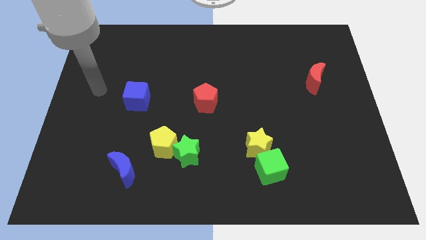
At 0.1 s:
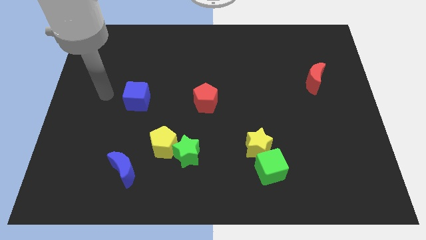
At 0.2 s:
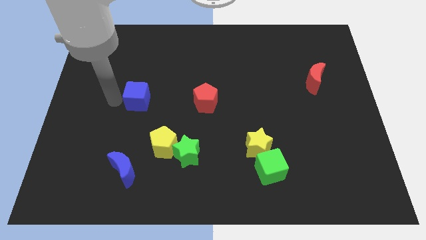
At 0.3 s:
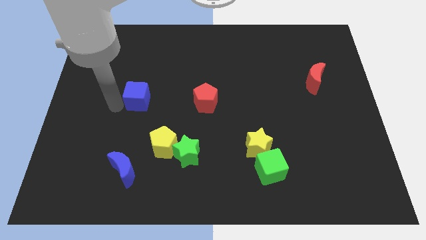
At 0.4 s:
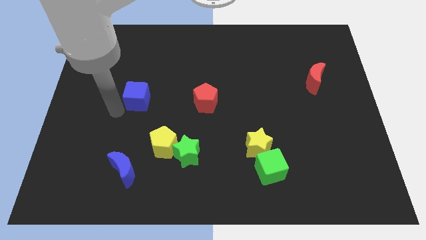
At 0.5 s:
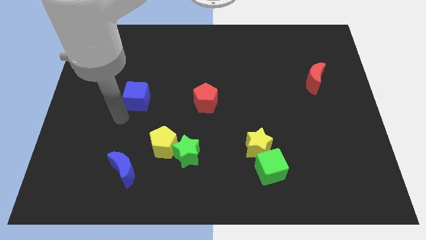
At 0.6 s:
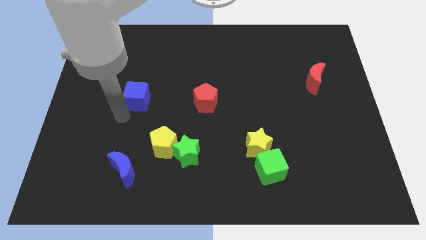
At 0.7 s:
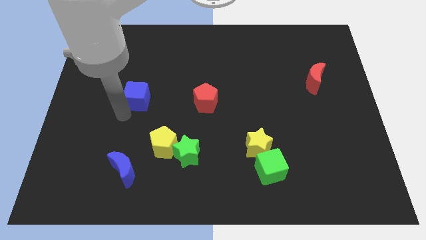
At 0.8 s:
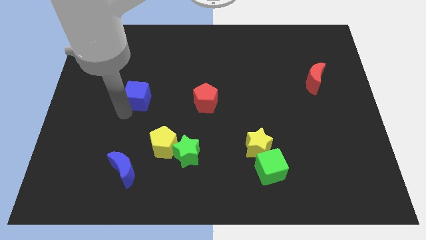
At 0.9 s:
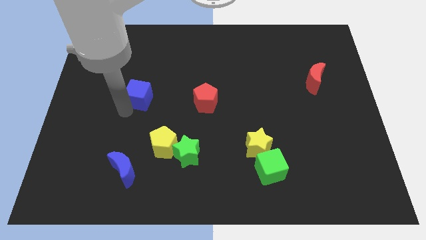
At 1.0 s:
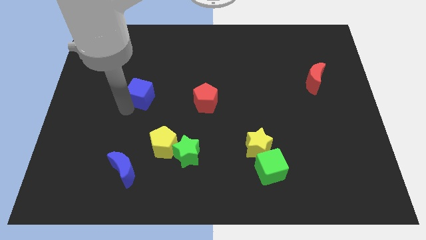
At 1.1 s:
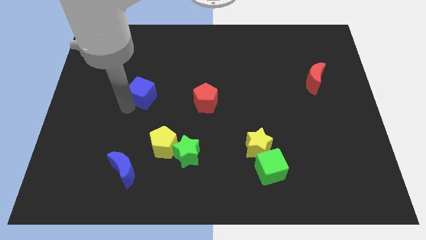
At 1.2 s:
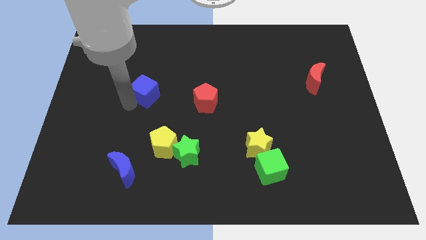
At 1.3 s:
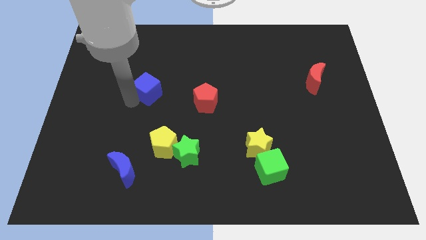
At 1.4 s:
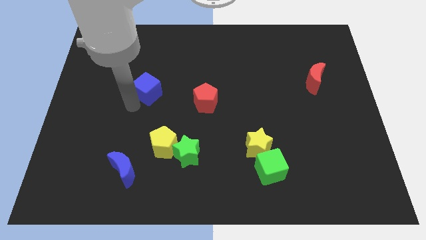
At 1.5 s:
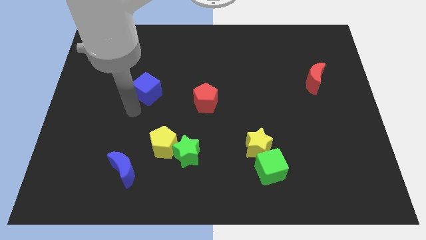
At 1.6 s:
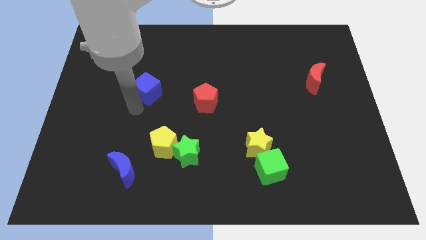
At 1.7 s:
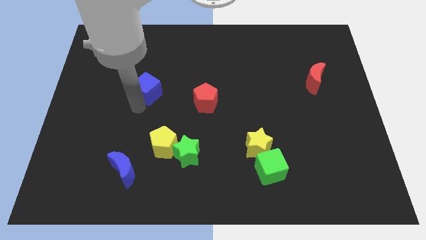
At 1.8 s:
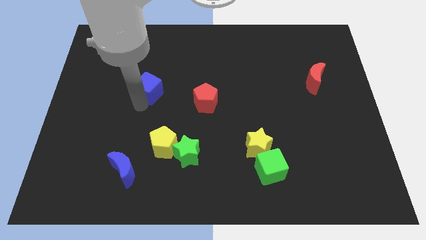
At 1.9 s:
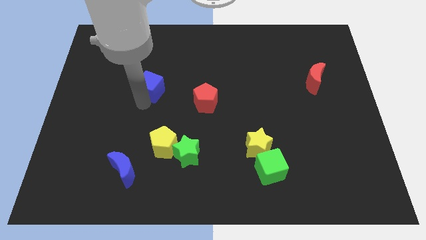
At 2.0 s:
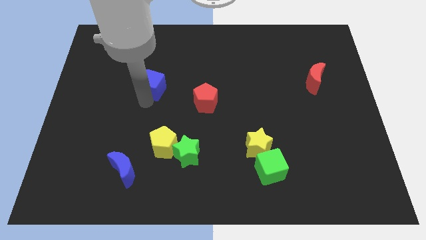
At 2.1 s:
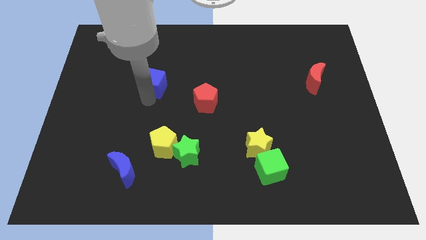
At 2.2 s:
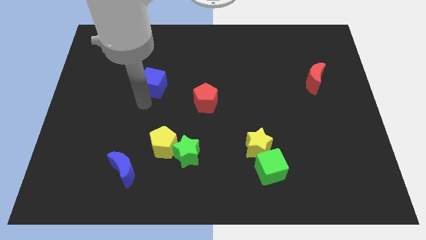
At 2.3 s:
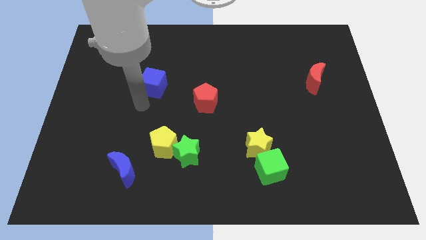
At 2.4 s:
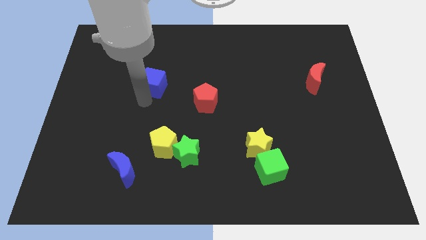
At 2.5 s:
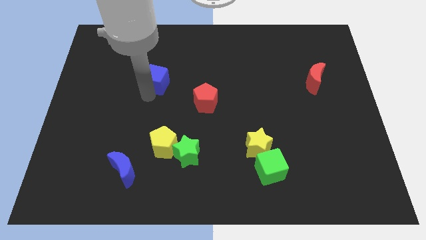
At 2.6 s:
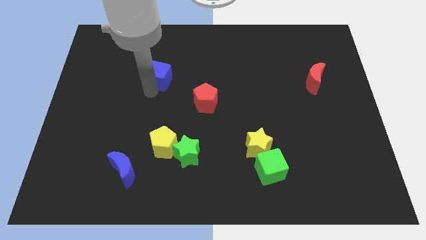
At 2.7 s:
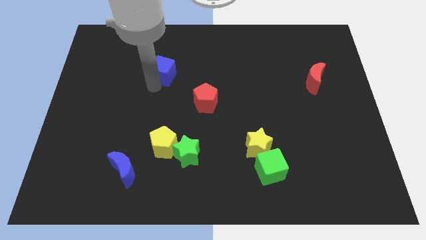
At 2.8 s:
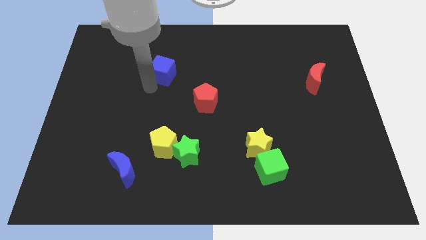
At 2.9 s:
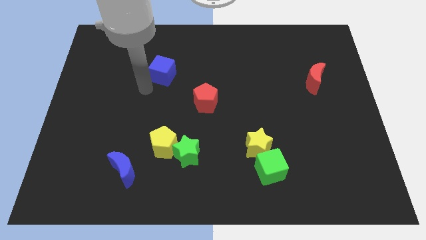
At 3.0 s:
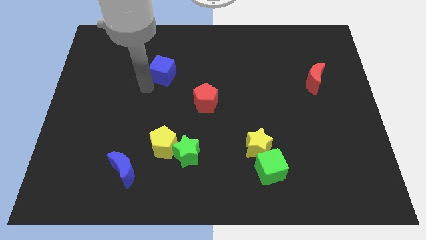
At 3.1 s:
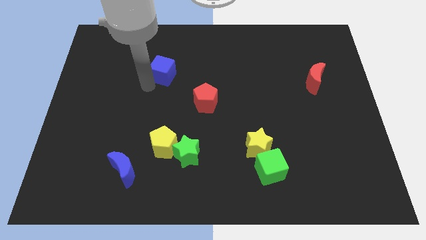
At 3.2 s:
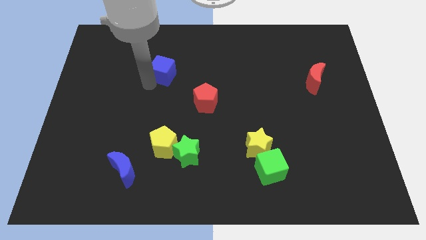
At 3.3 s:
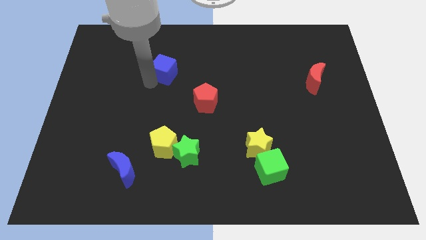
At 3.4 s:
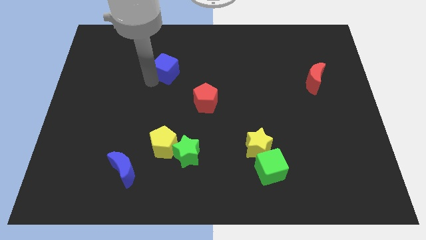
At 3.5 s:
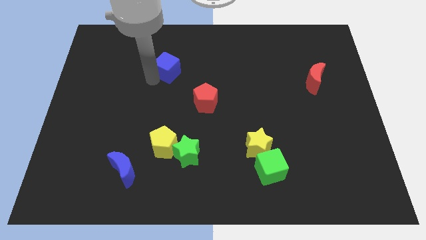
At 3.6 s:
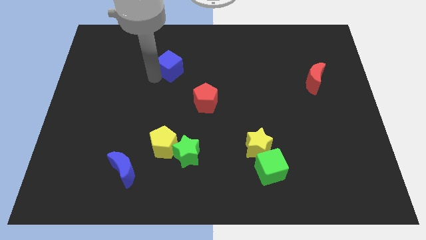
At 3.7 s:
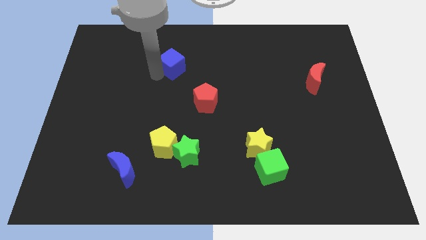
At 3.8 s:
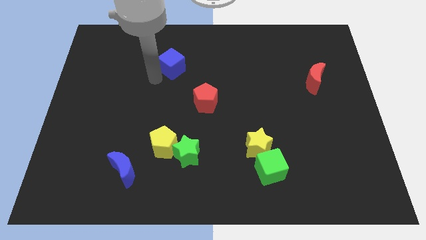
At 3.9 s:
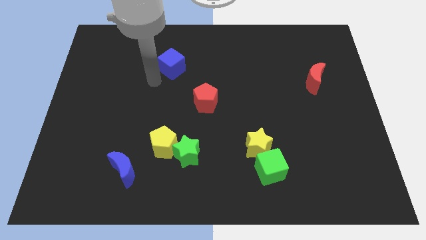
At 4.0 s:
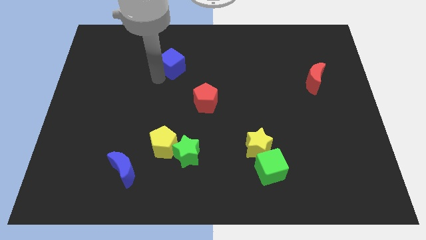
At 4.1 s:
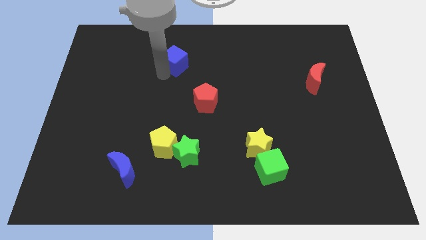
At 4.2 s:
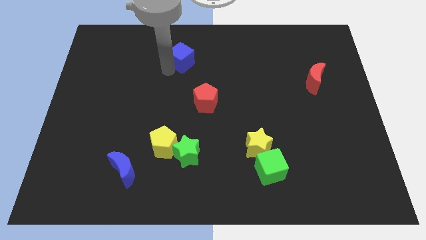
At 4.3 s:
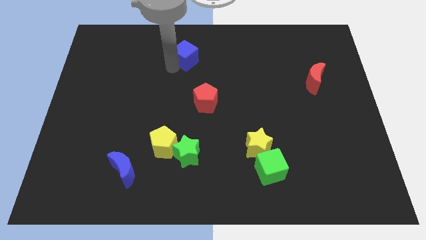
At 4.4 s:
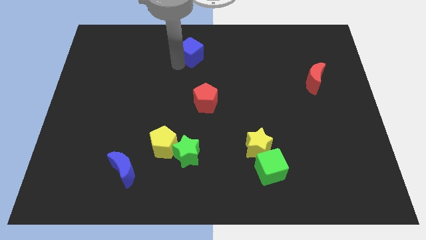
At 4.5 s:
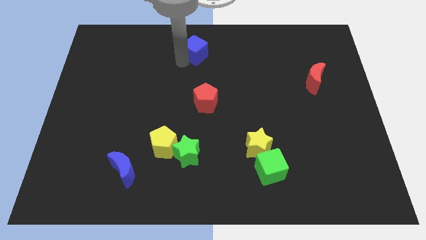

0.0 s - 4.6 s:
put the blue cube to the towards your base

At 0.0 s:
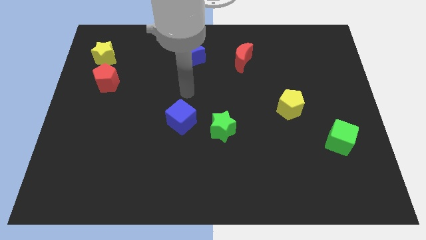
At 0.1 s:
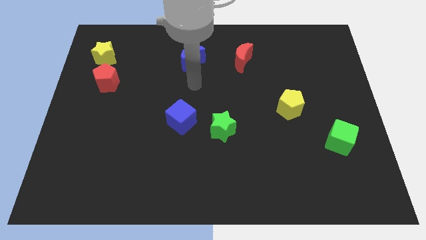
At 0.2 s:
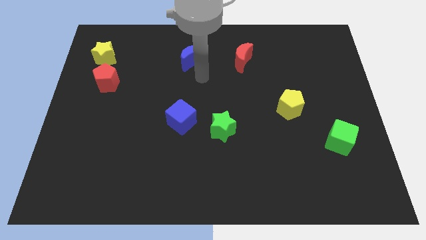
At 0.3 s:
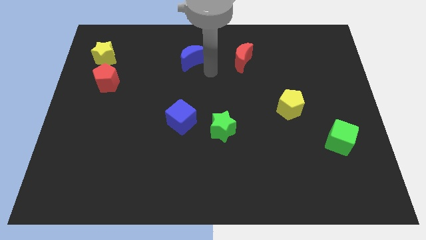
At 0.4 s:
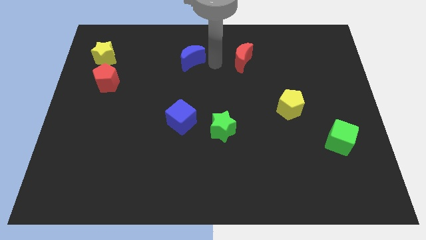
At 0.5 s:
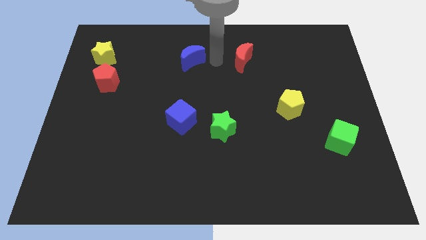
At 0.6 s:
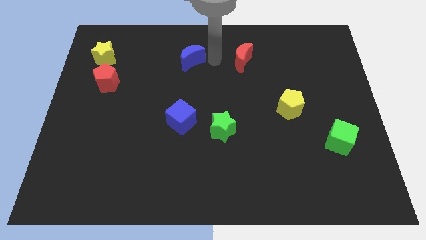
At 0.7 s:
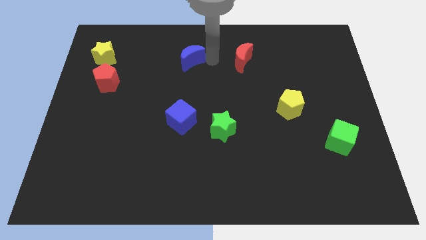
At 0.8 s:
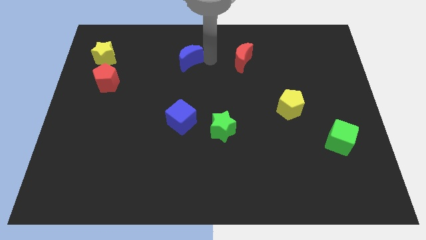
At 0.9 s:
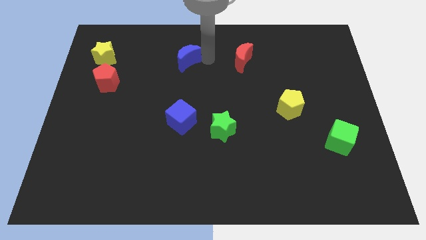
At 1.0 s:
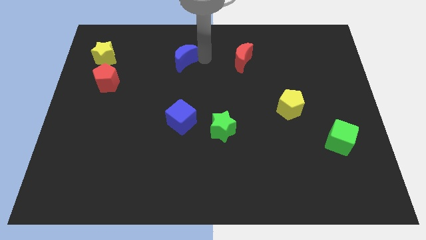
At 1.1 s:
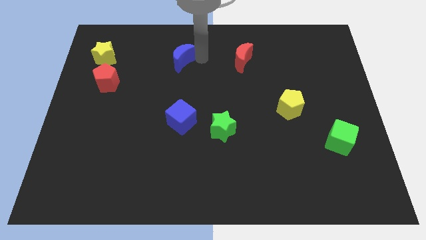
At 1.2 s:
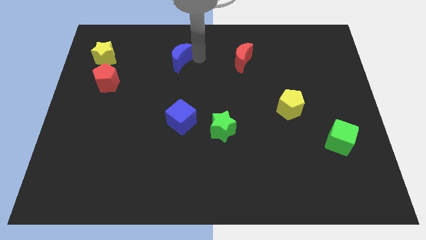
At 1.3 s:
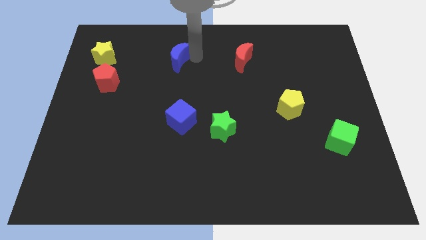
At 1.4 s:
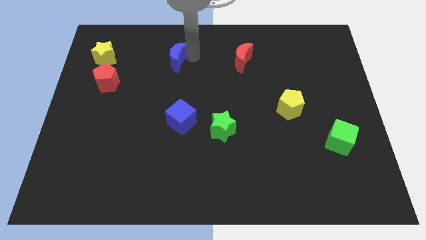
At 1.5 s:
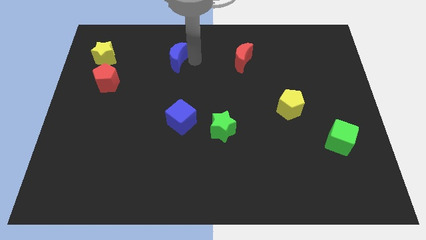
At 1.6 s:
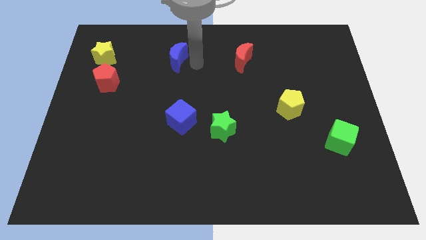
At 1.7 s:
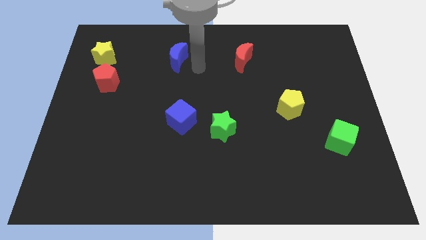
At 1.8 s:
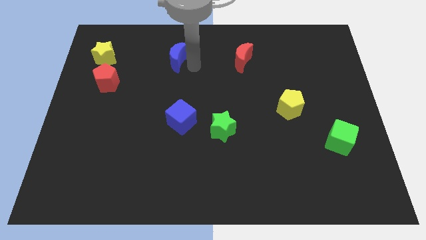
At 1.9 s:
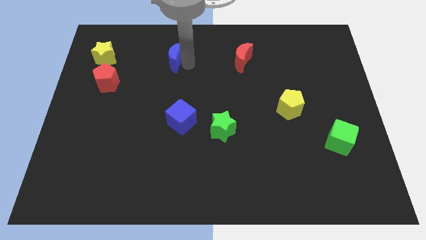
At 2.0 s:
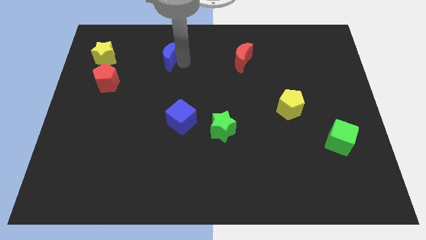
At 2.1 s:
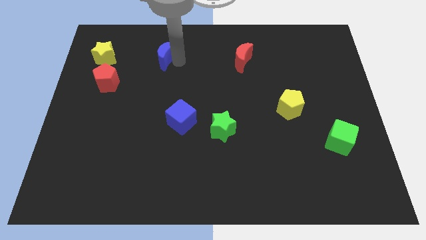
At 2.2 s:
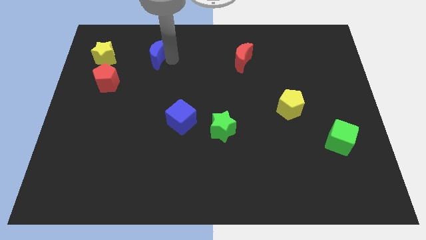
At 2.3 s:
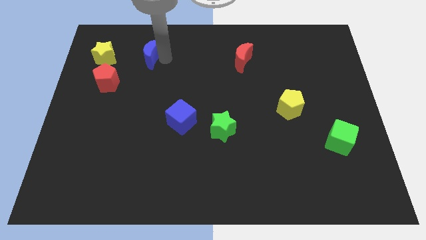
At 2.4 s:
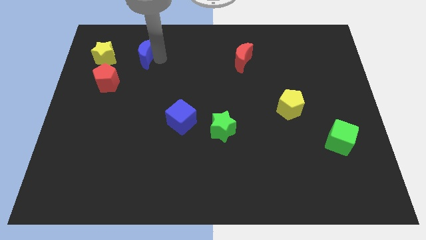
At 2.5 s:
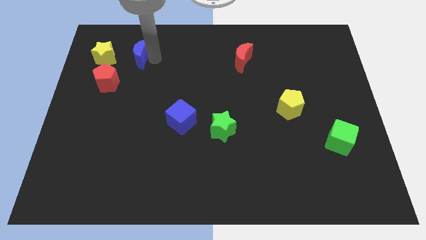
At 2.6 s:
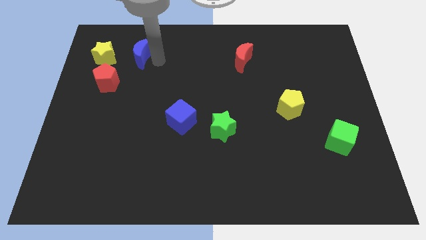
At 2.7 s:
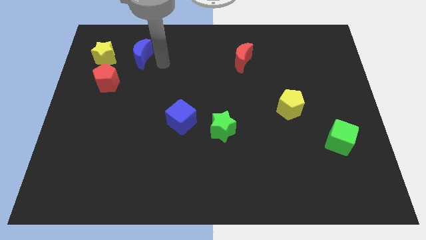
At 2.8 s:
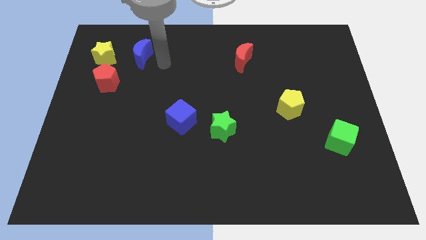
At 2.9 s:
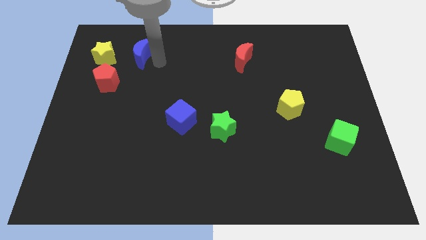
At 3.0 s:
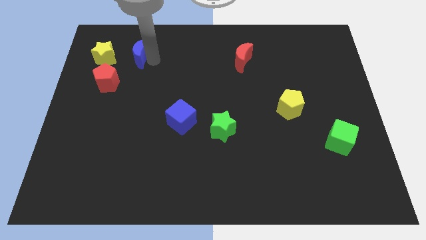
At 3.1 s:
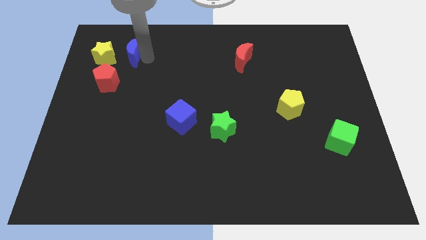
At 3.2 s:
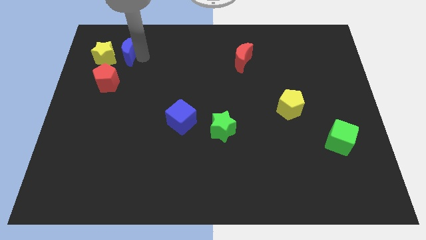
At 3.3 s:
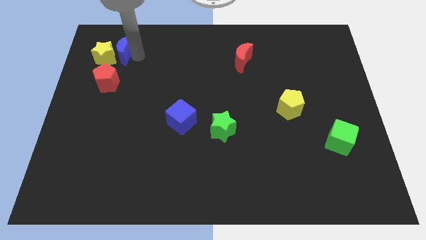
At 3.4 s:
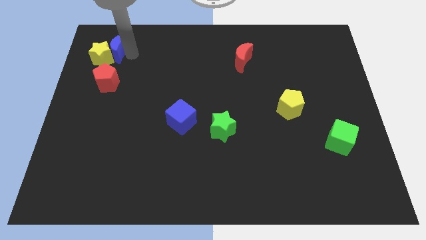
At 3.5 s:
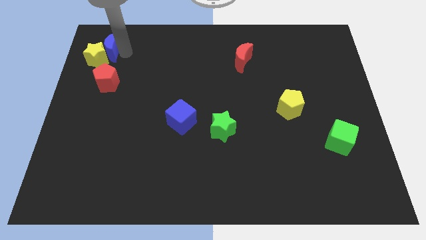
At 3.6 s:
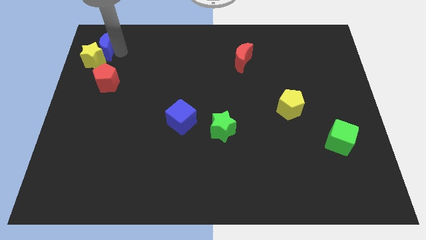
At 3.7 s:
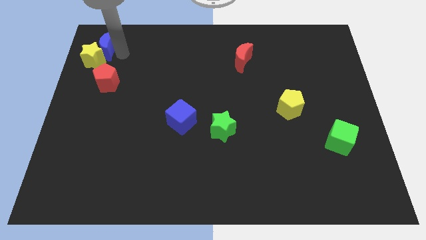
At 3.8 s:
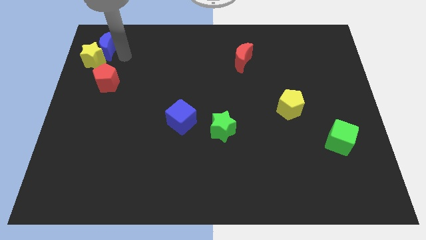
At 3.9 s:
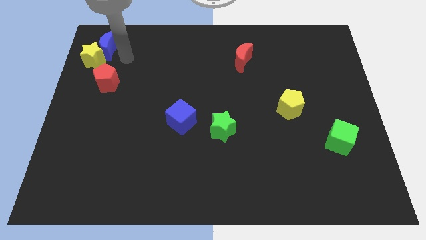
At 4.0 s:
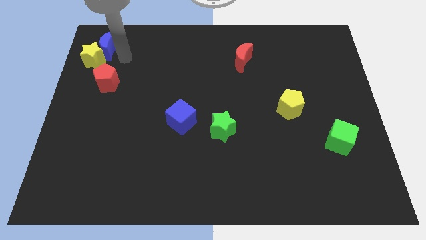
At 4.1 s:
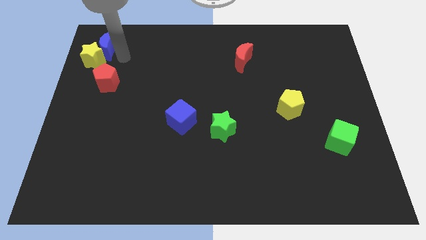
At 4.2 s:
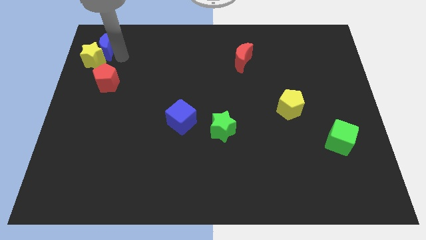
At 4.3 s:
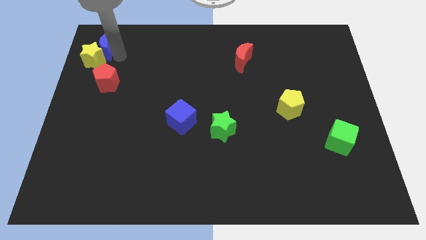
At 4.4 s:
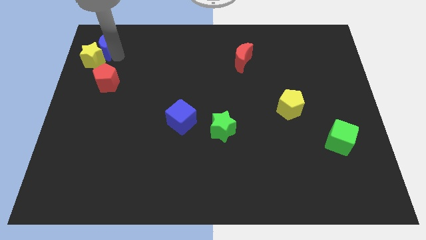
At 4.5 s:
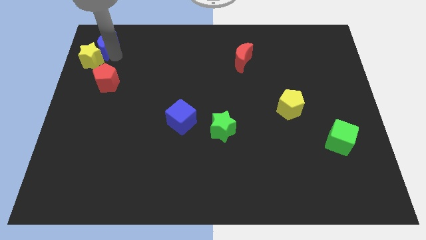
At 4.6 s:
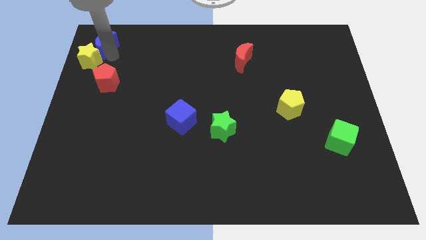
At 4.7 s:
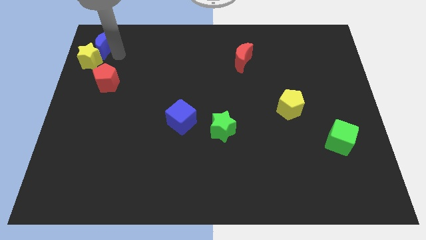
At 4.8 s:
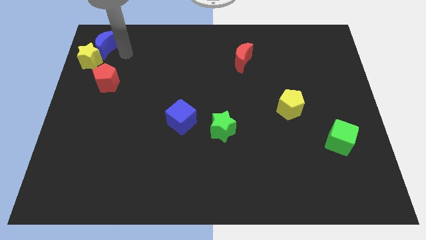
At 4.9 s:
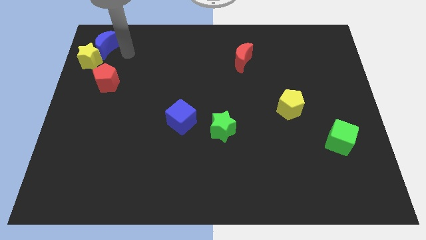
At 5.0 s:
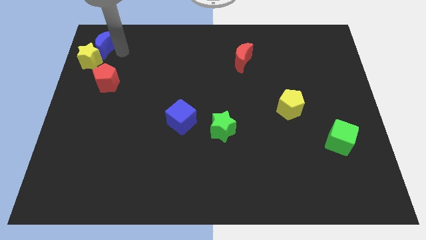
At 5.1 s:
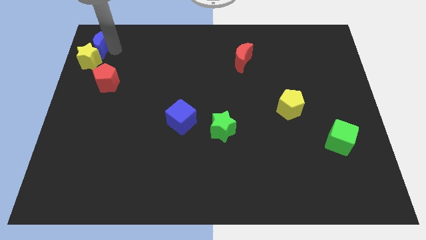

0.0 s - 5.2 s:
put the blue moon to the top left corner
